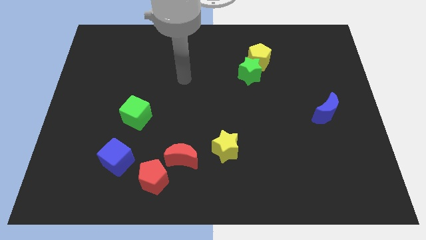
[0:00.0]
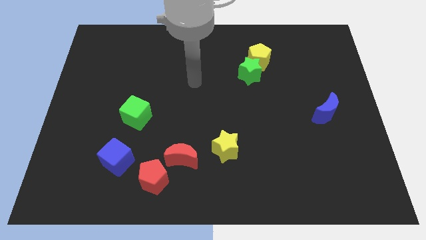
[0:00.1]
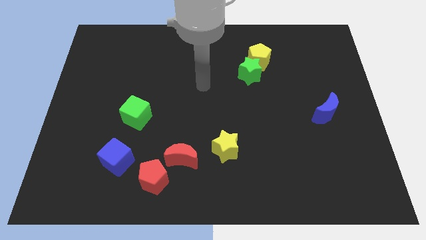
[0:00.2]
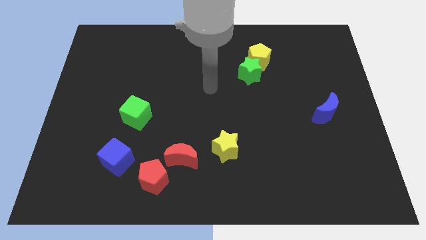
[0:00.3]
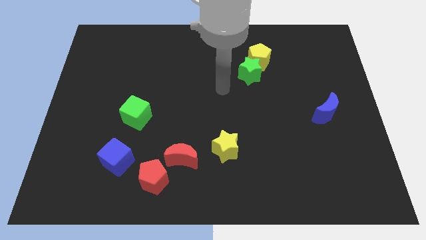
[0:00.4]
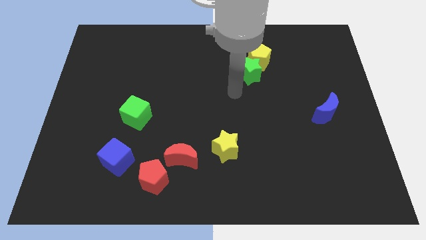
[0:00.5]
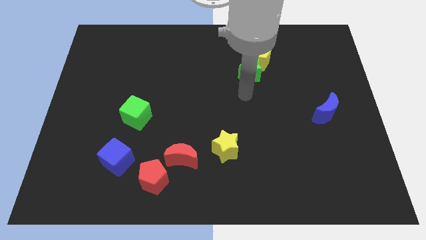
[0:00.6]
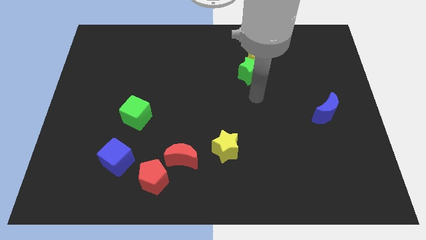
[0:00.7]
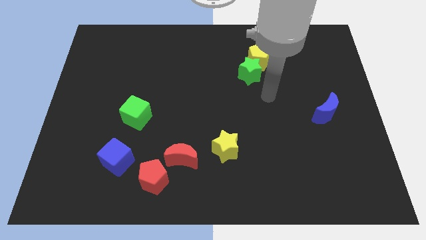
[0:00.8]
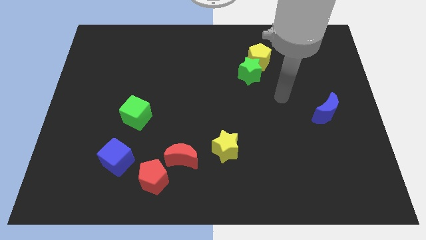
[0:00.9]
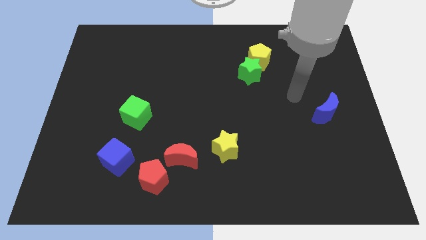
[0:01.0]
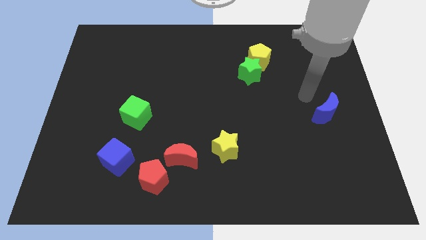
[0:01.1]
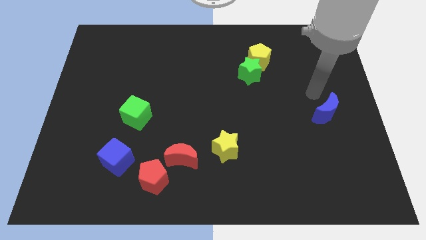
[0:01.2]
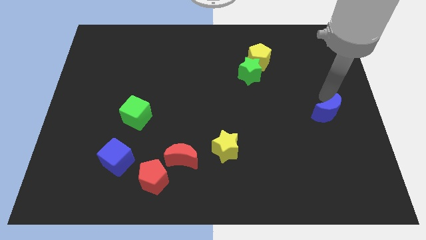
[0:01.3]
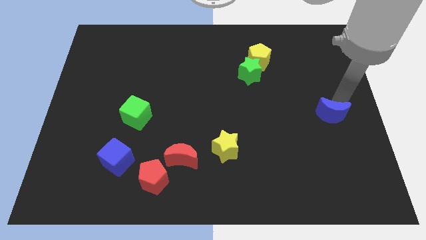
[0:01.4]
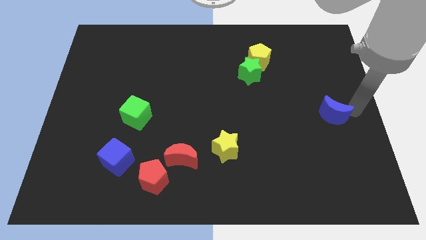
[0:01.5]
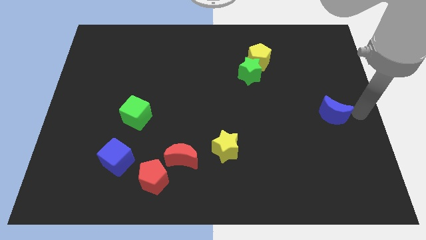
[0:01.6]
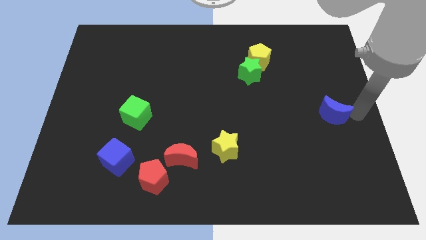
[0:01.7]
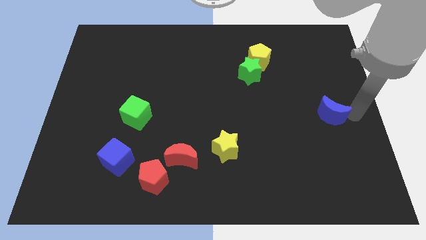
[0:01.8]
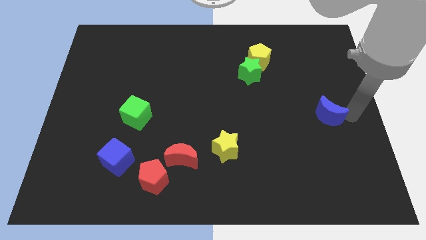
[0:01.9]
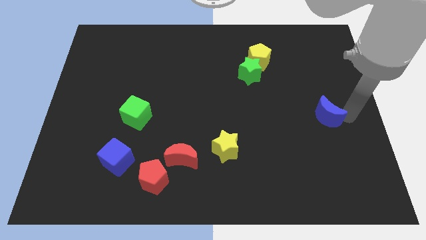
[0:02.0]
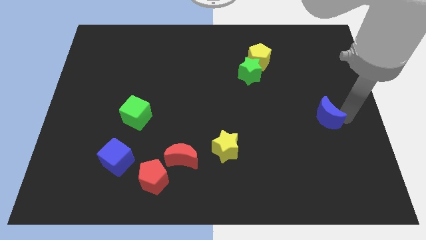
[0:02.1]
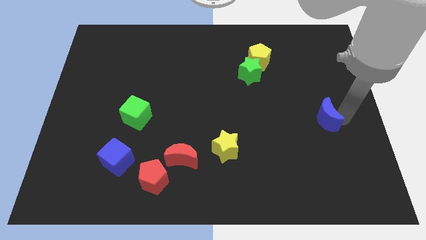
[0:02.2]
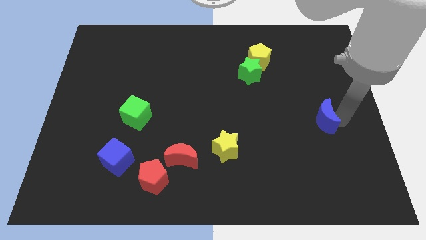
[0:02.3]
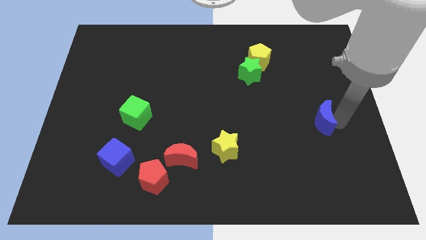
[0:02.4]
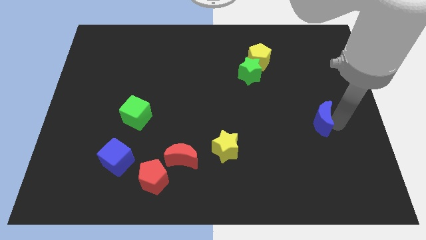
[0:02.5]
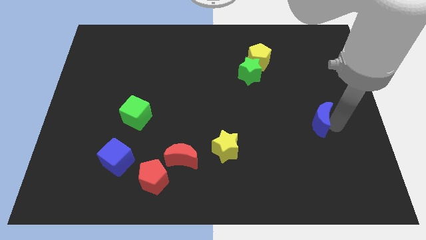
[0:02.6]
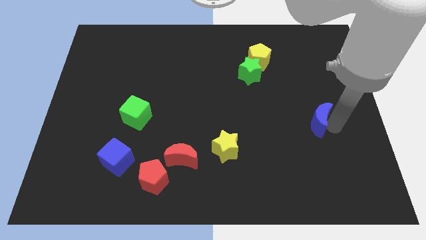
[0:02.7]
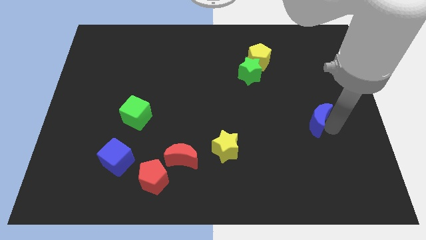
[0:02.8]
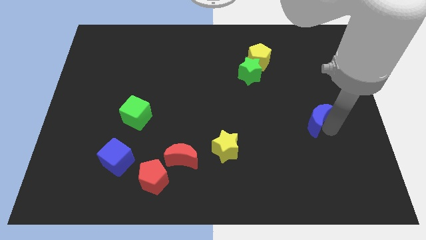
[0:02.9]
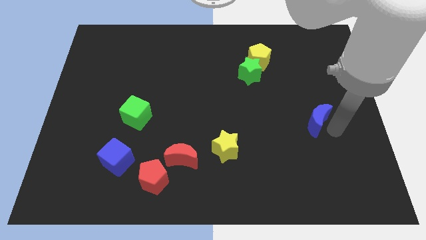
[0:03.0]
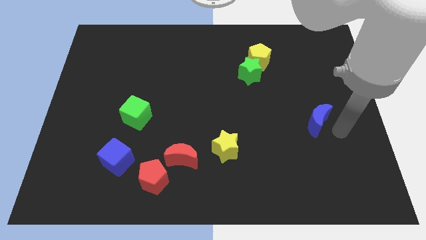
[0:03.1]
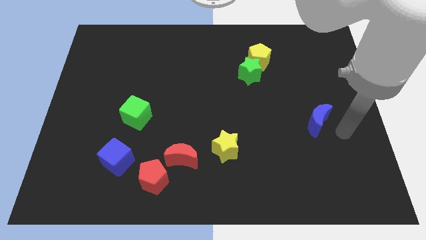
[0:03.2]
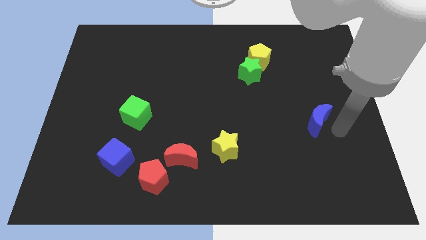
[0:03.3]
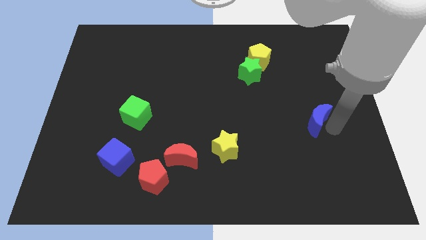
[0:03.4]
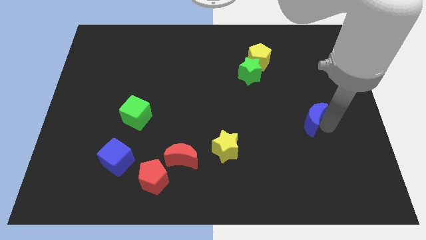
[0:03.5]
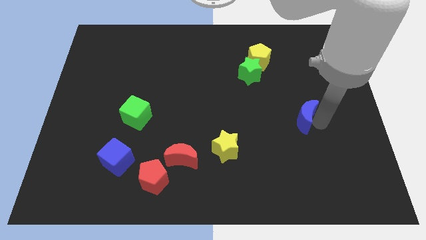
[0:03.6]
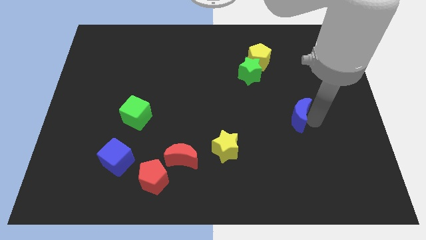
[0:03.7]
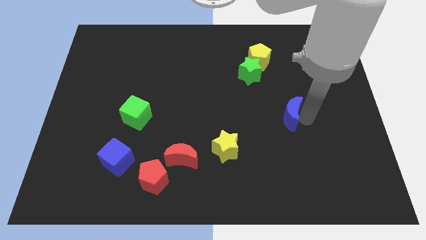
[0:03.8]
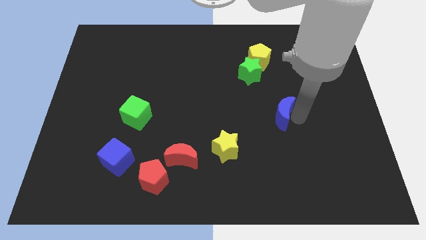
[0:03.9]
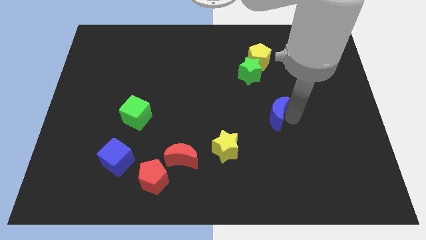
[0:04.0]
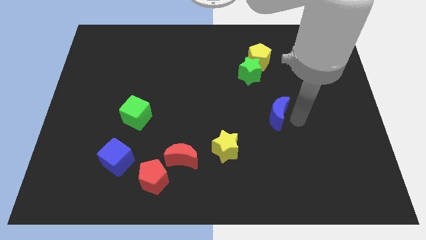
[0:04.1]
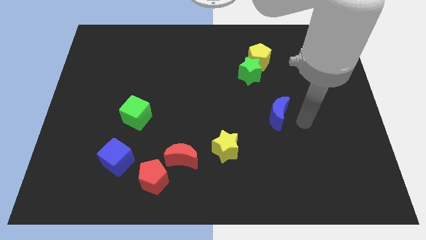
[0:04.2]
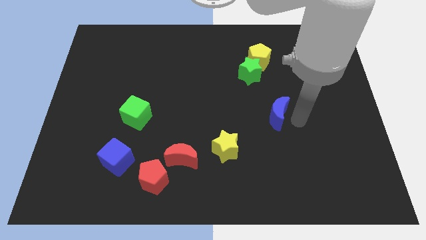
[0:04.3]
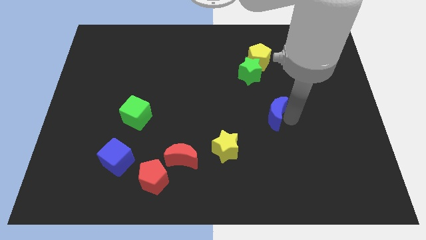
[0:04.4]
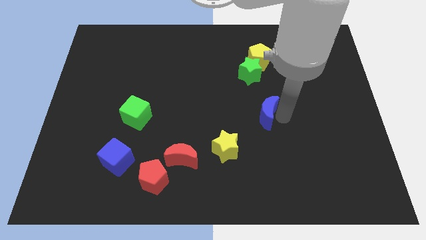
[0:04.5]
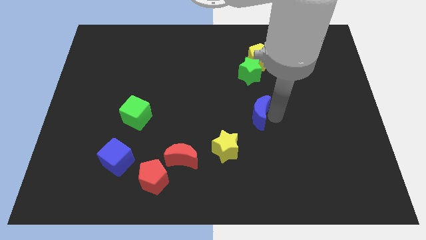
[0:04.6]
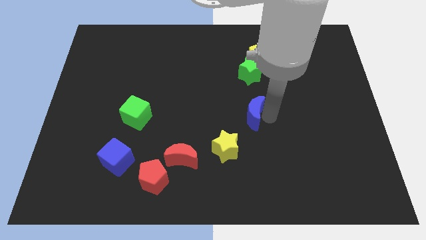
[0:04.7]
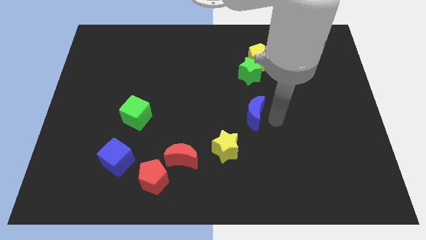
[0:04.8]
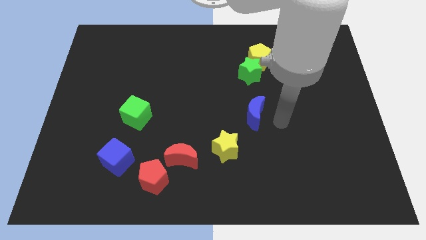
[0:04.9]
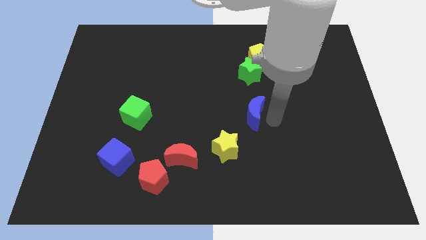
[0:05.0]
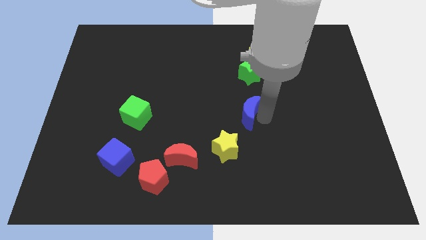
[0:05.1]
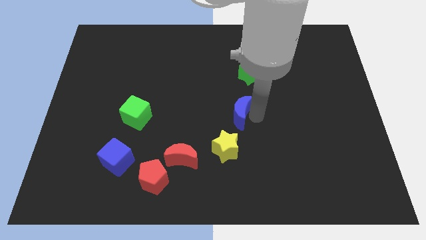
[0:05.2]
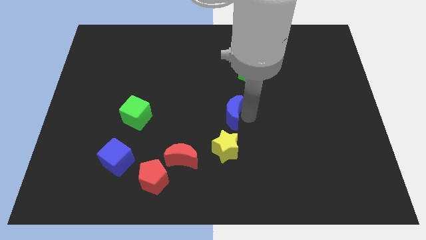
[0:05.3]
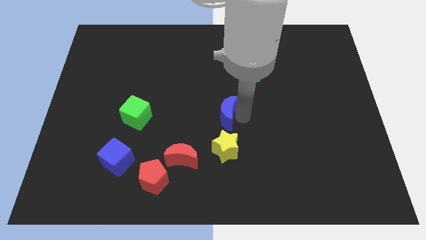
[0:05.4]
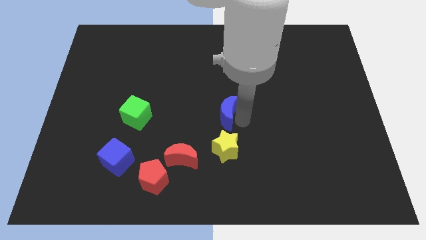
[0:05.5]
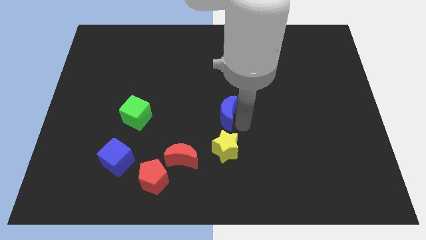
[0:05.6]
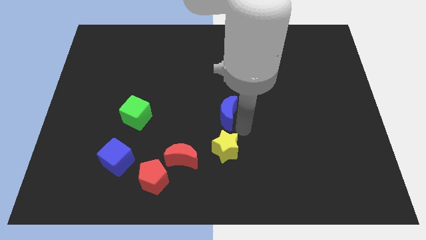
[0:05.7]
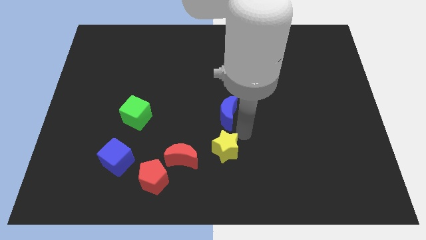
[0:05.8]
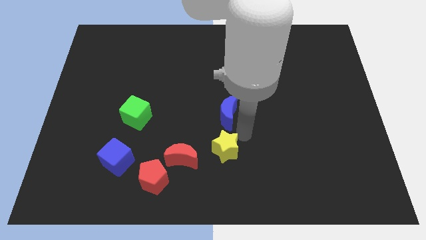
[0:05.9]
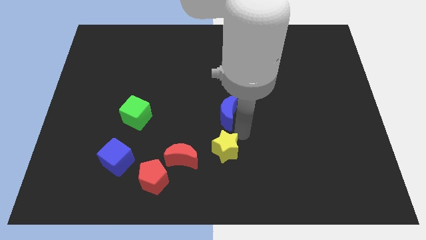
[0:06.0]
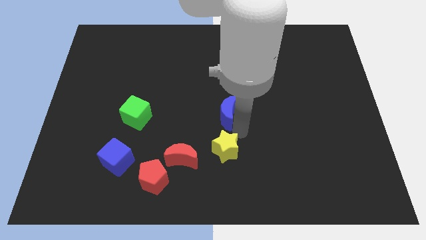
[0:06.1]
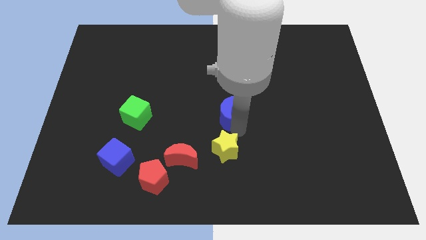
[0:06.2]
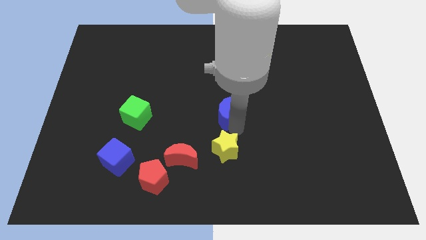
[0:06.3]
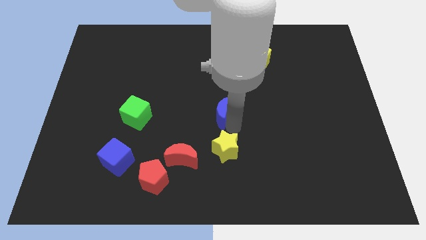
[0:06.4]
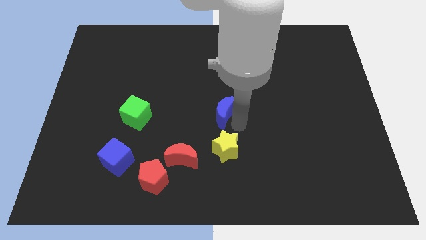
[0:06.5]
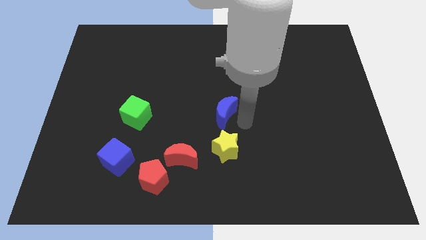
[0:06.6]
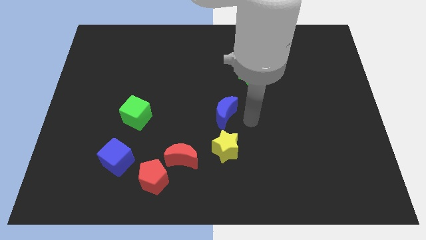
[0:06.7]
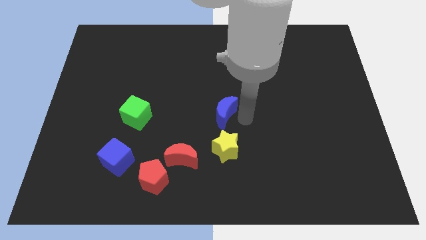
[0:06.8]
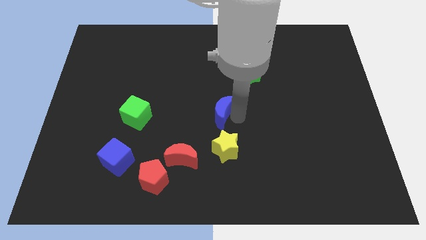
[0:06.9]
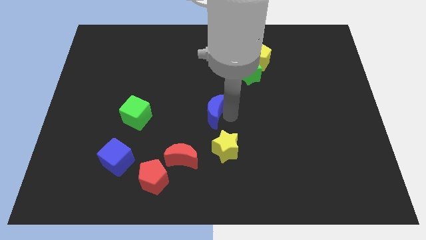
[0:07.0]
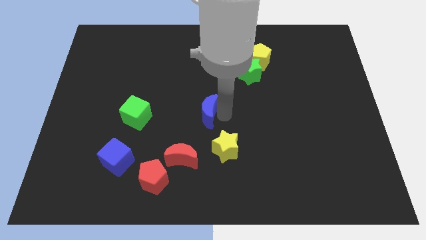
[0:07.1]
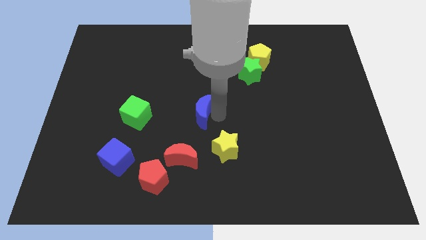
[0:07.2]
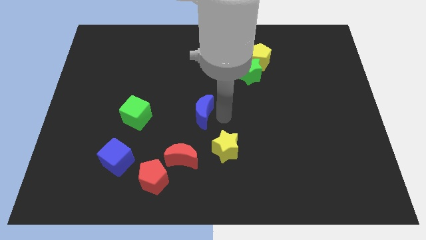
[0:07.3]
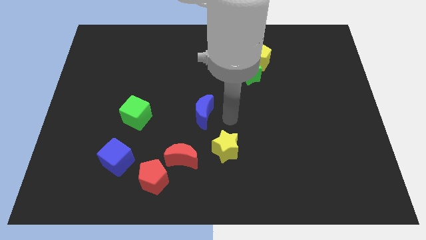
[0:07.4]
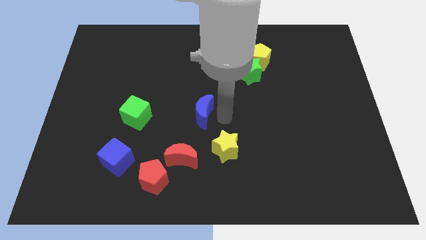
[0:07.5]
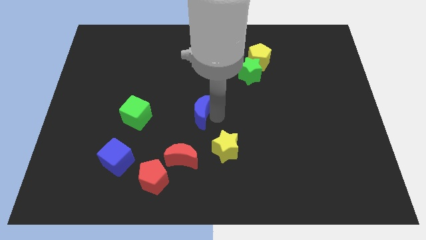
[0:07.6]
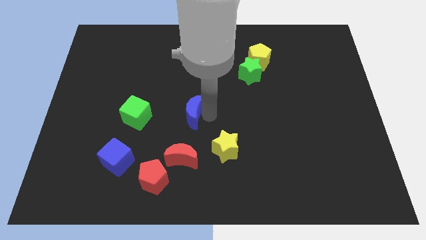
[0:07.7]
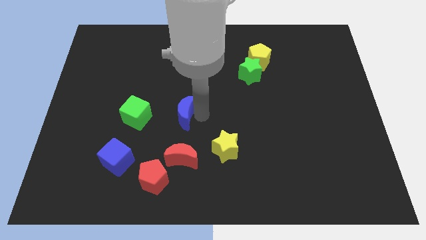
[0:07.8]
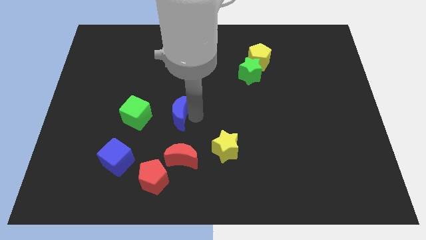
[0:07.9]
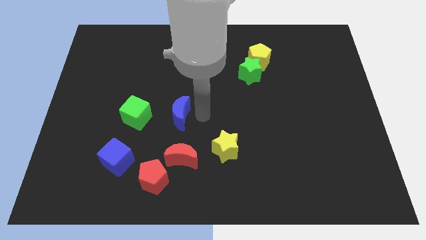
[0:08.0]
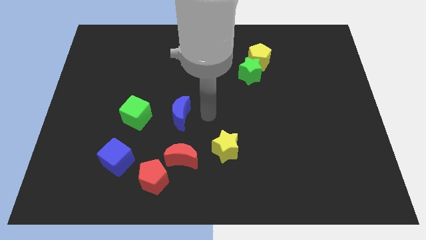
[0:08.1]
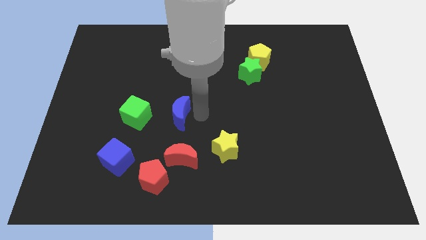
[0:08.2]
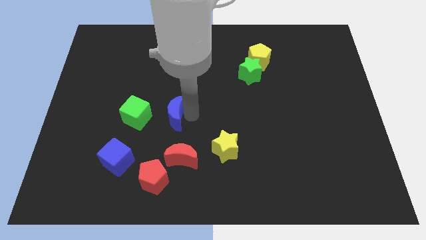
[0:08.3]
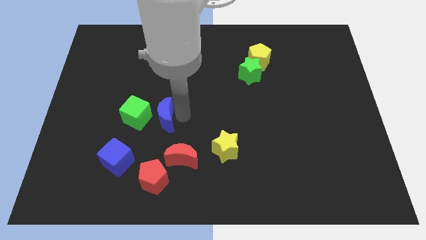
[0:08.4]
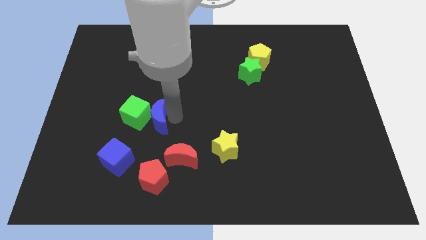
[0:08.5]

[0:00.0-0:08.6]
move the blue moon next to the green cube
